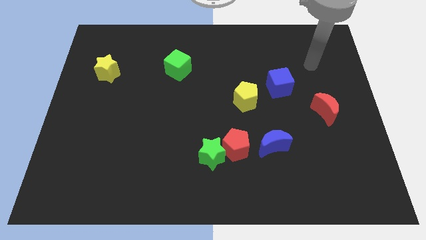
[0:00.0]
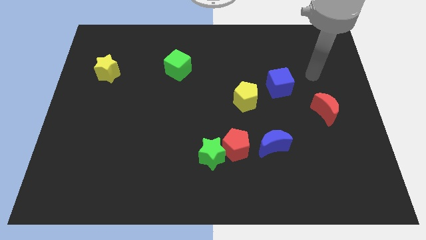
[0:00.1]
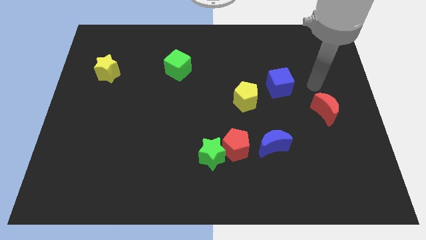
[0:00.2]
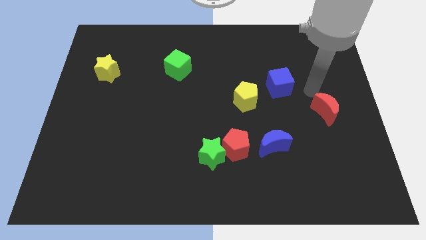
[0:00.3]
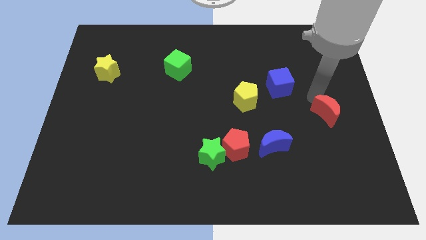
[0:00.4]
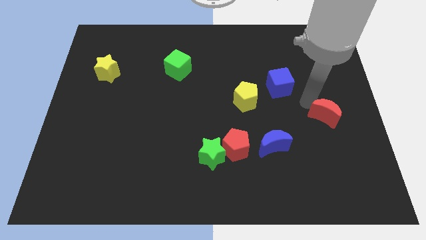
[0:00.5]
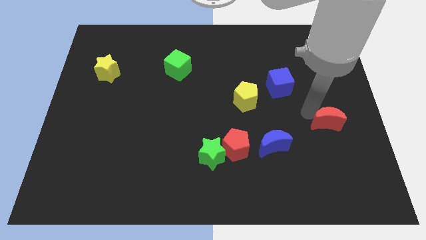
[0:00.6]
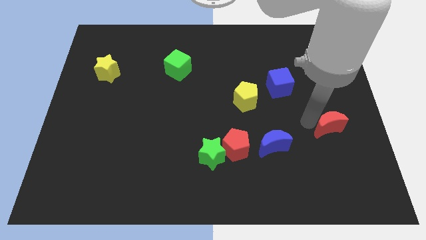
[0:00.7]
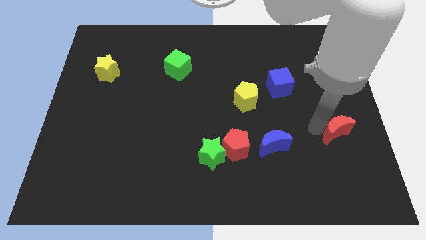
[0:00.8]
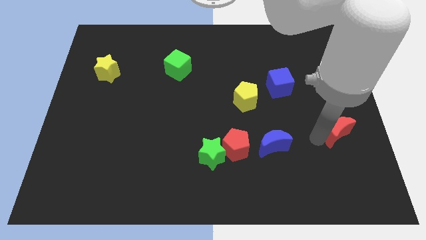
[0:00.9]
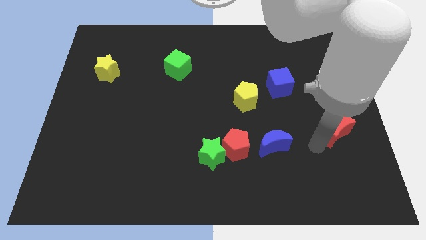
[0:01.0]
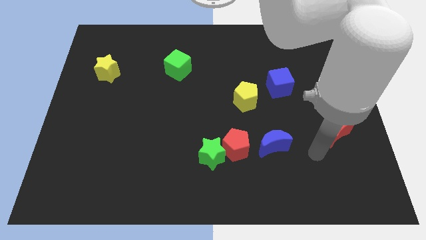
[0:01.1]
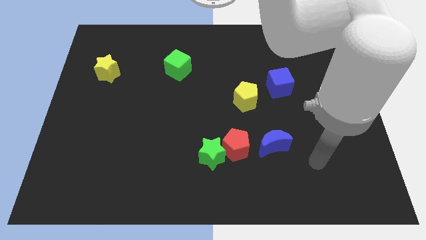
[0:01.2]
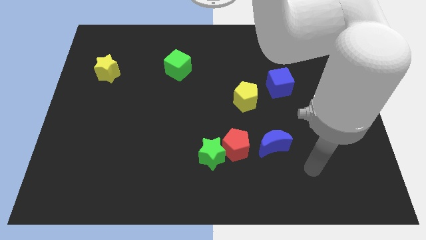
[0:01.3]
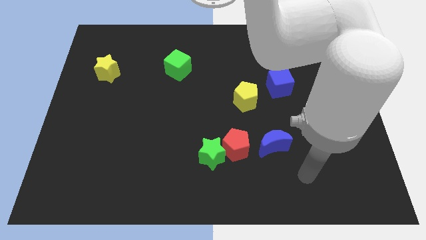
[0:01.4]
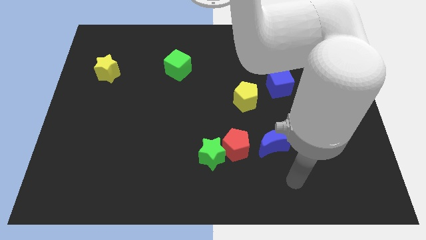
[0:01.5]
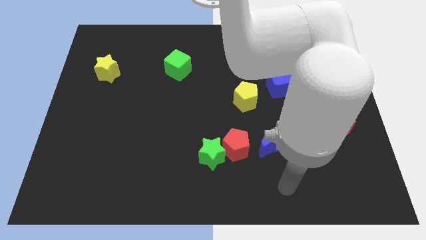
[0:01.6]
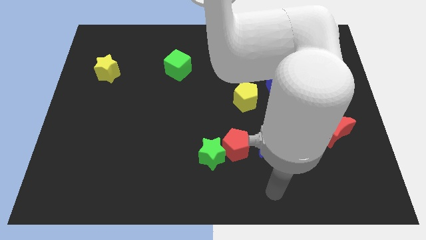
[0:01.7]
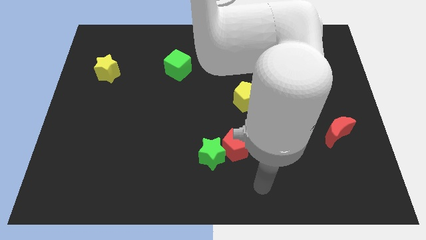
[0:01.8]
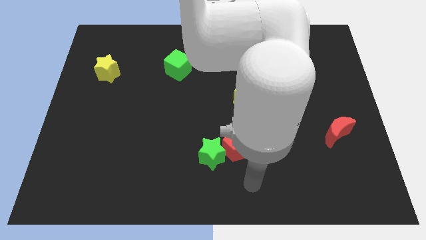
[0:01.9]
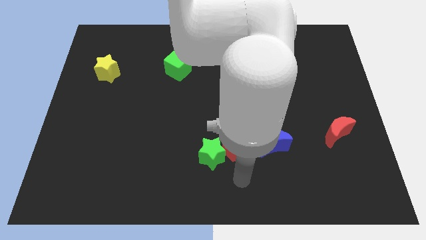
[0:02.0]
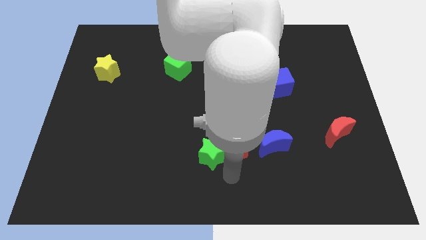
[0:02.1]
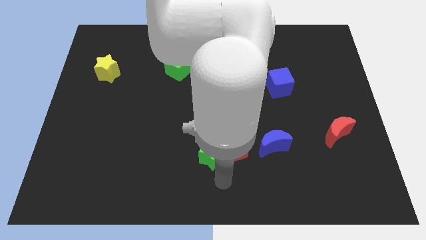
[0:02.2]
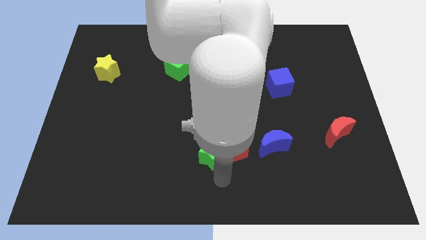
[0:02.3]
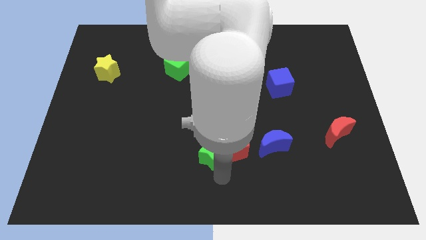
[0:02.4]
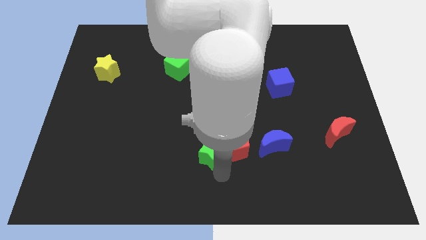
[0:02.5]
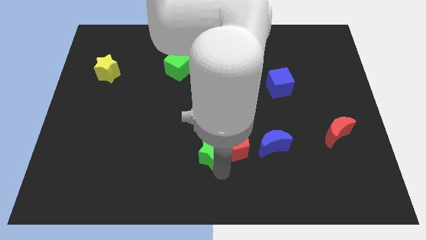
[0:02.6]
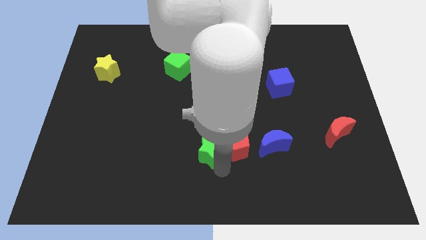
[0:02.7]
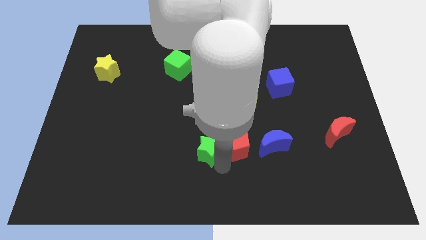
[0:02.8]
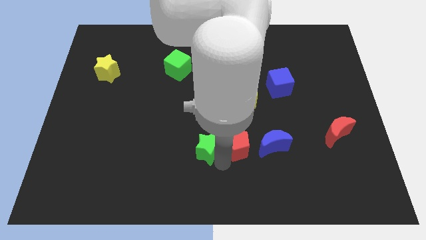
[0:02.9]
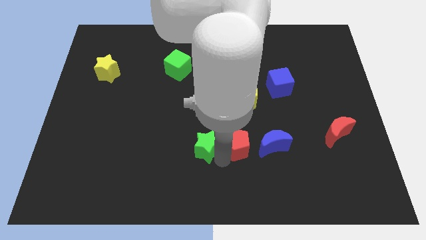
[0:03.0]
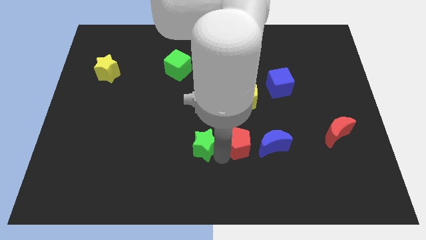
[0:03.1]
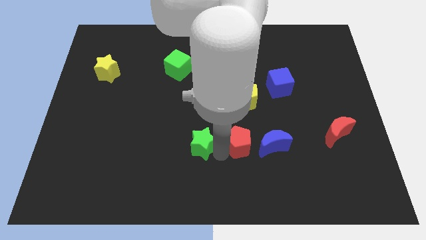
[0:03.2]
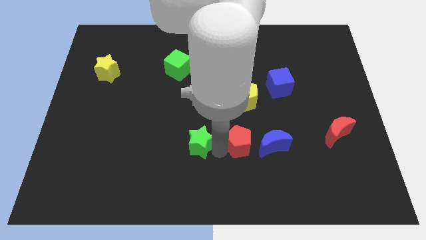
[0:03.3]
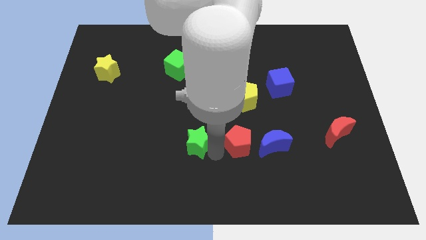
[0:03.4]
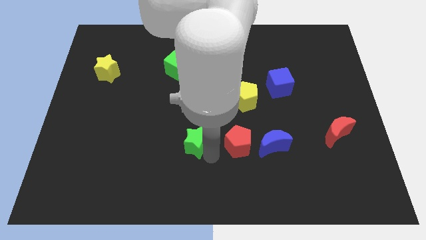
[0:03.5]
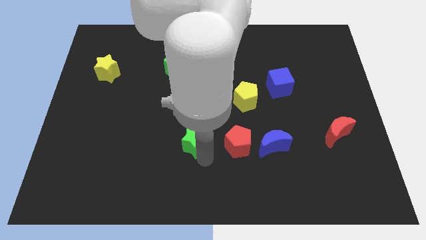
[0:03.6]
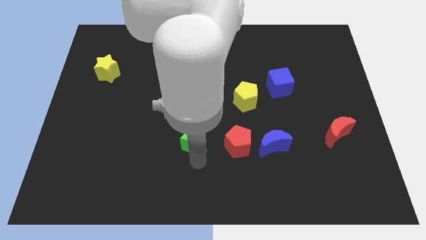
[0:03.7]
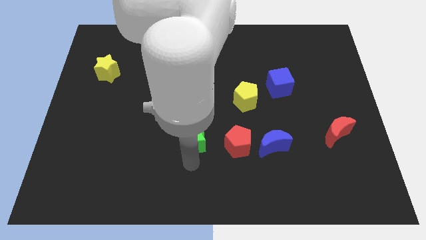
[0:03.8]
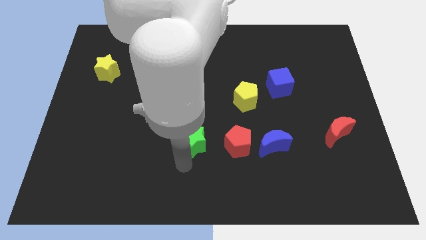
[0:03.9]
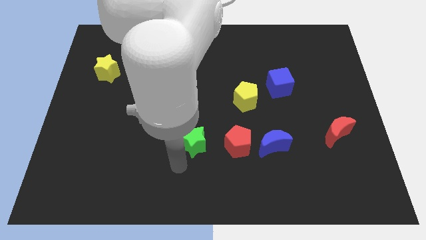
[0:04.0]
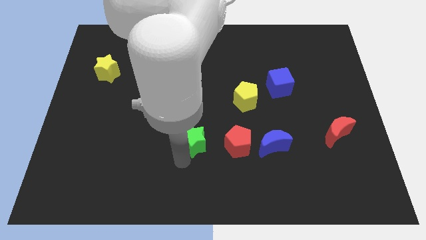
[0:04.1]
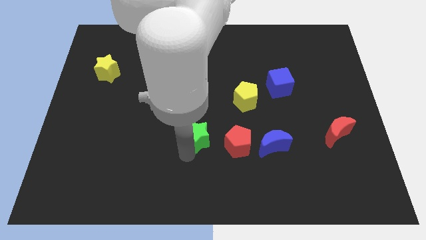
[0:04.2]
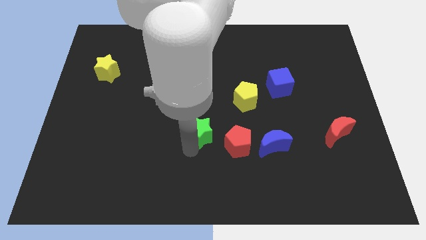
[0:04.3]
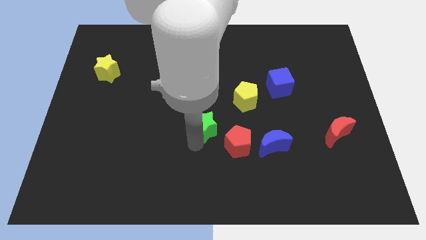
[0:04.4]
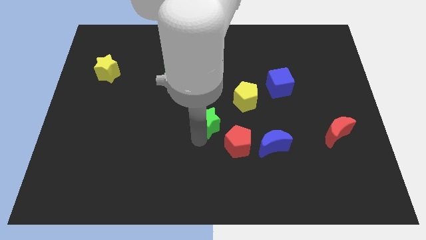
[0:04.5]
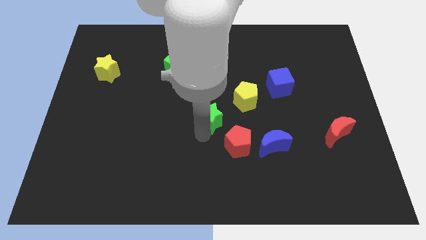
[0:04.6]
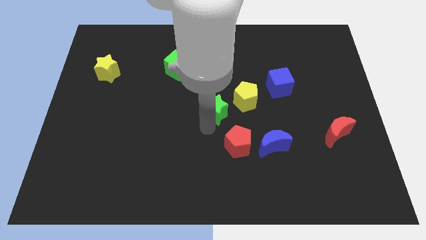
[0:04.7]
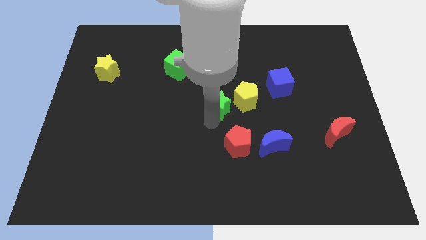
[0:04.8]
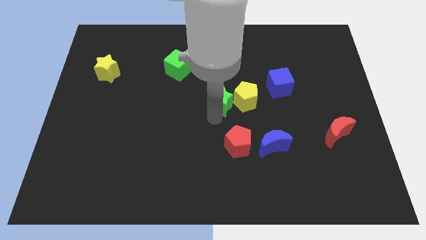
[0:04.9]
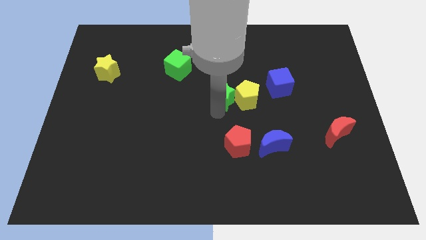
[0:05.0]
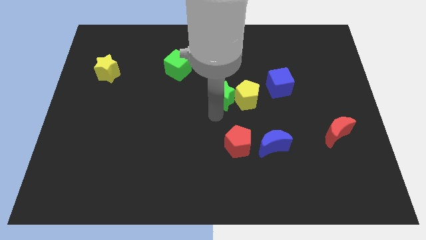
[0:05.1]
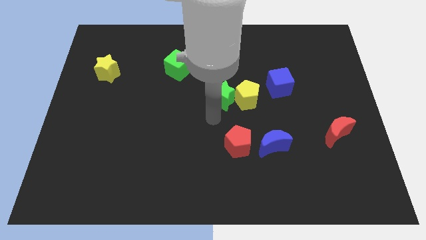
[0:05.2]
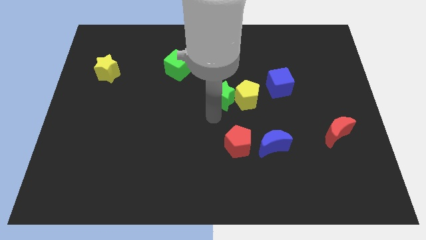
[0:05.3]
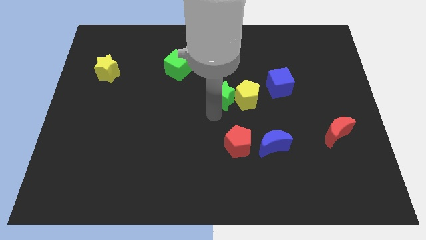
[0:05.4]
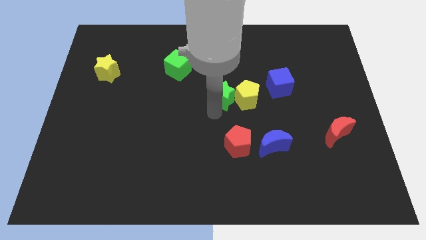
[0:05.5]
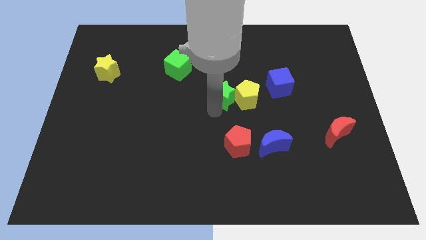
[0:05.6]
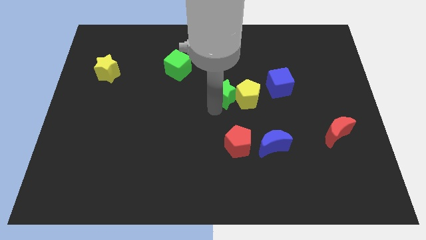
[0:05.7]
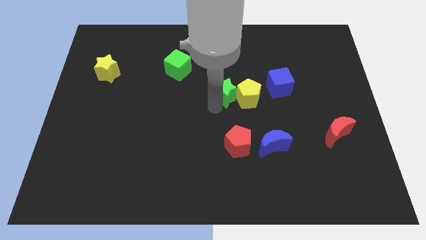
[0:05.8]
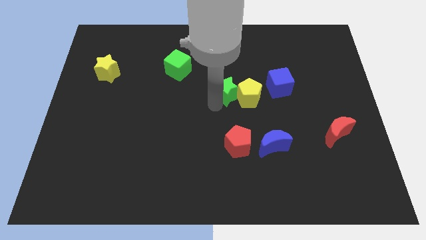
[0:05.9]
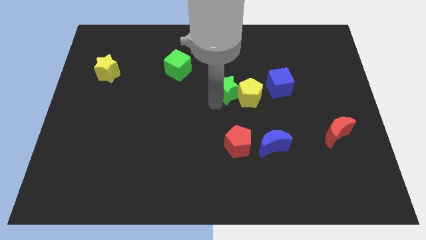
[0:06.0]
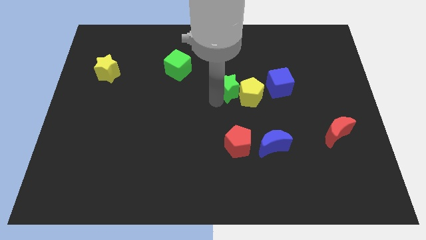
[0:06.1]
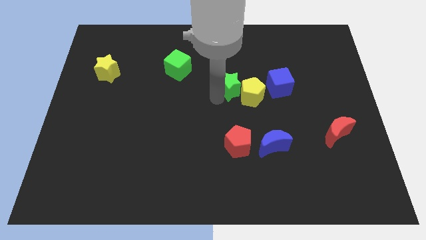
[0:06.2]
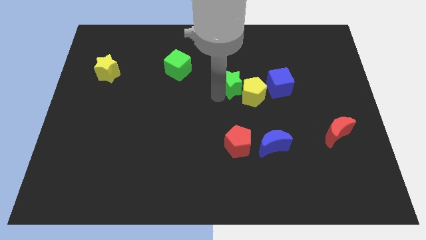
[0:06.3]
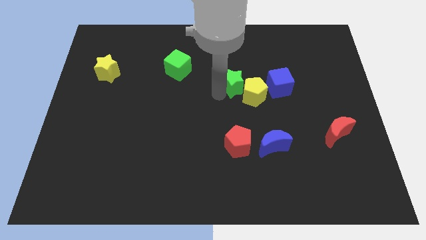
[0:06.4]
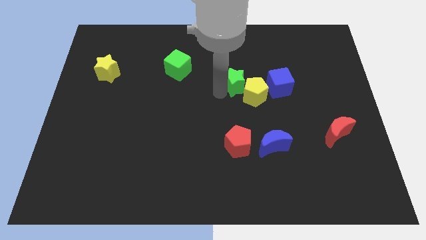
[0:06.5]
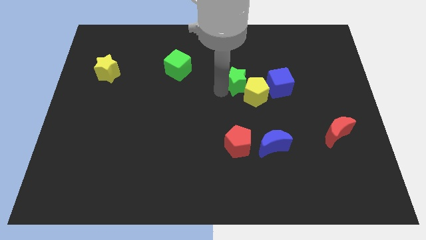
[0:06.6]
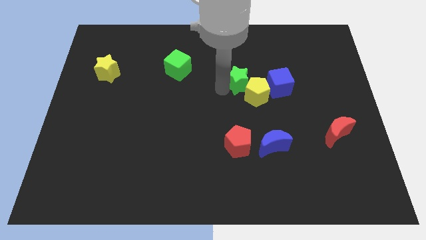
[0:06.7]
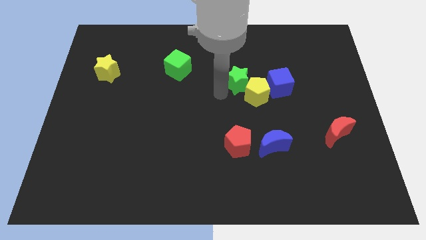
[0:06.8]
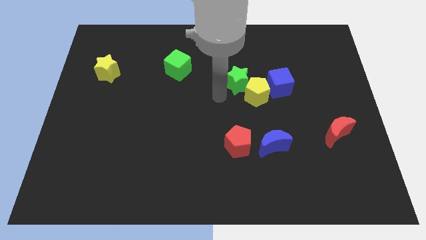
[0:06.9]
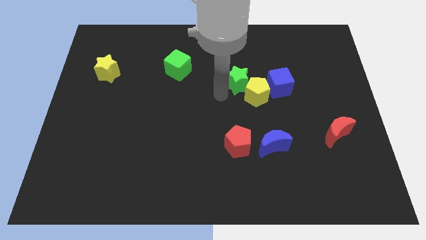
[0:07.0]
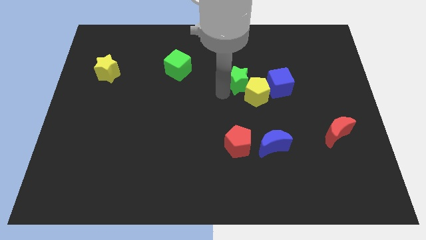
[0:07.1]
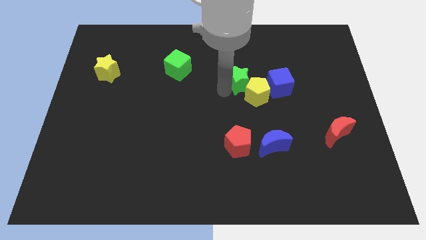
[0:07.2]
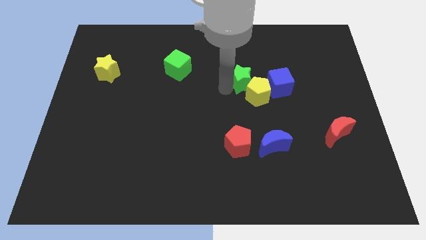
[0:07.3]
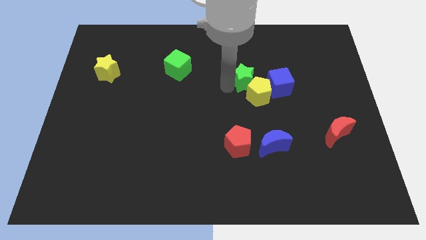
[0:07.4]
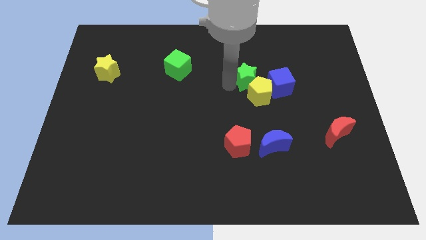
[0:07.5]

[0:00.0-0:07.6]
move the green star diagonally up and to the left of the blue cube
